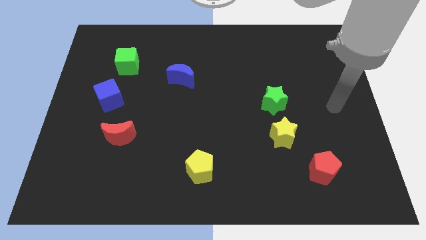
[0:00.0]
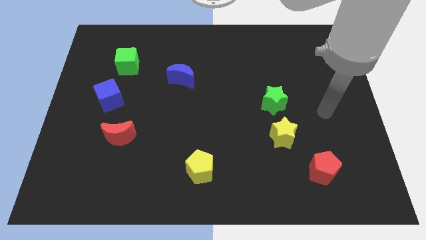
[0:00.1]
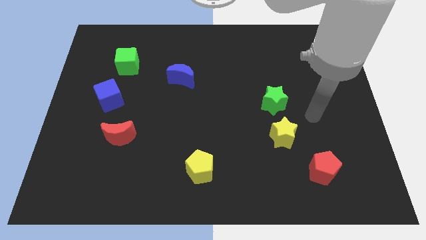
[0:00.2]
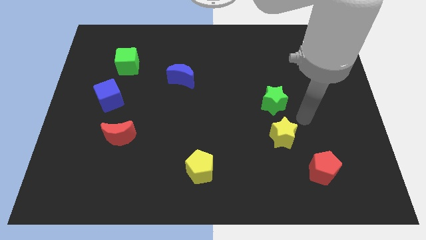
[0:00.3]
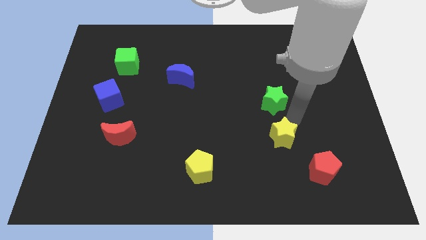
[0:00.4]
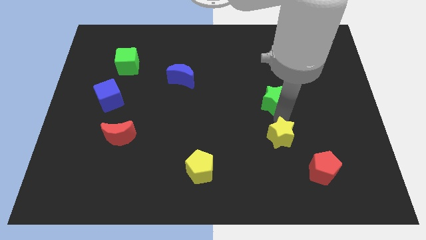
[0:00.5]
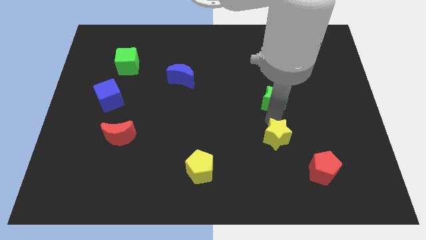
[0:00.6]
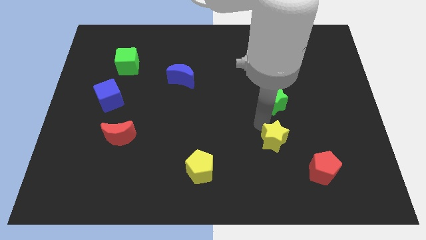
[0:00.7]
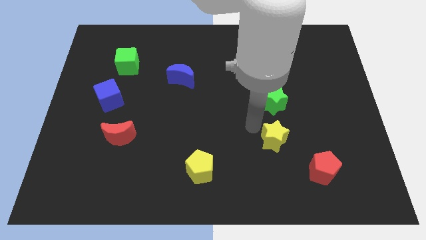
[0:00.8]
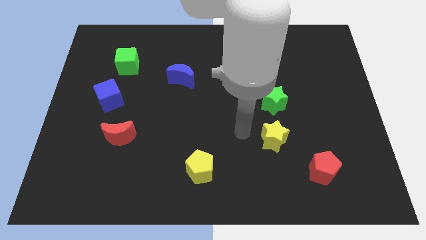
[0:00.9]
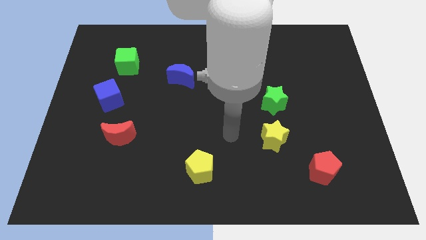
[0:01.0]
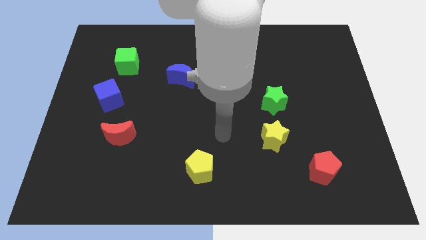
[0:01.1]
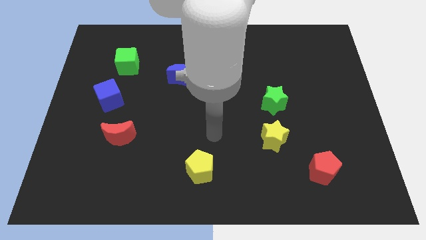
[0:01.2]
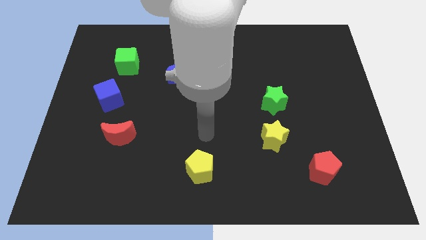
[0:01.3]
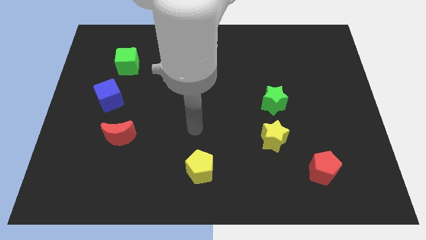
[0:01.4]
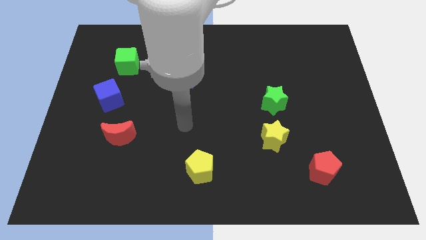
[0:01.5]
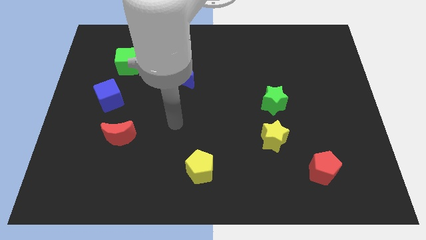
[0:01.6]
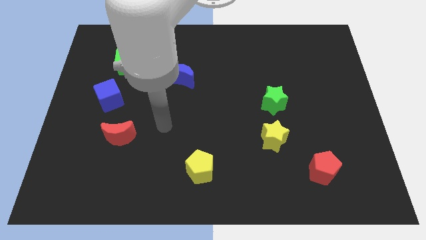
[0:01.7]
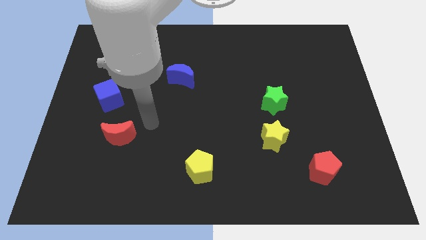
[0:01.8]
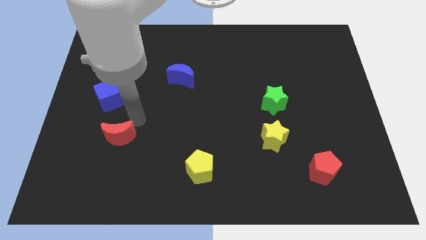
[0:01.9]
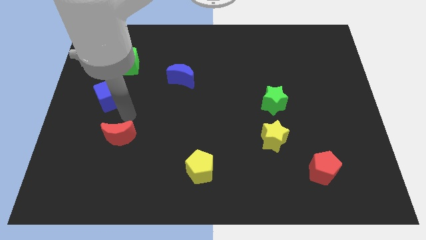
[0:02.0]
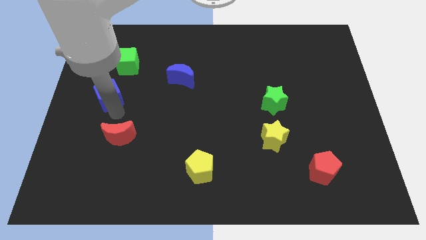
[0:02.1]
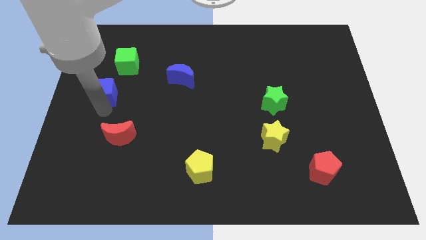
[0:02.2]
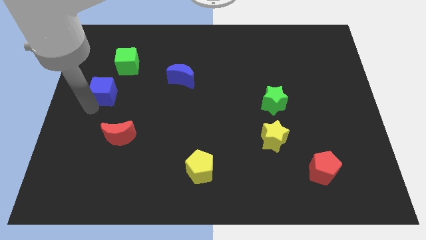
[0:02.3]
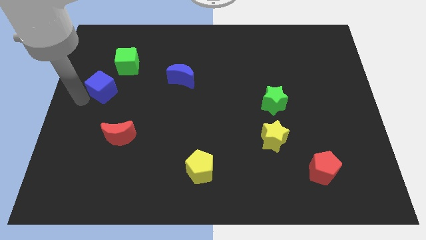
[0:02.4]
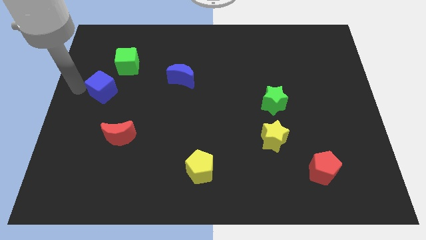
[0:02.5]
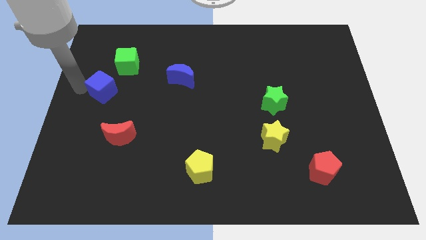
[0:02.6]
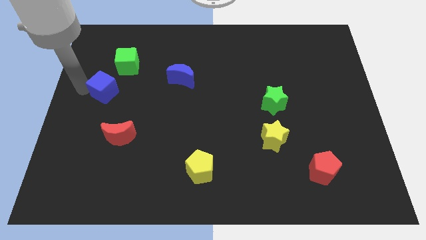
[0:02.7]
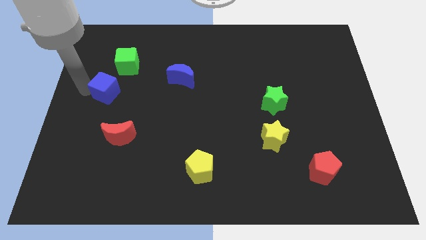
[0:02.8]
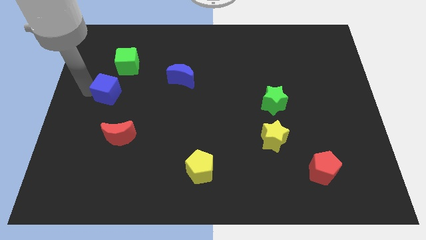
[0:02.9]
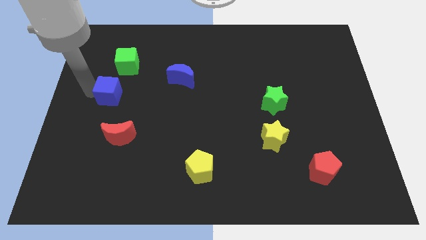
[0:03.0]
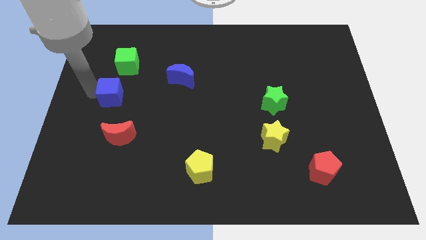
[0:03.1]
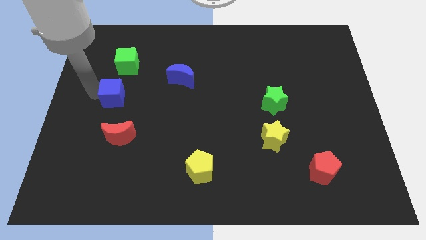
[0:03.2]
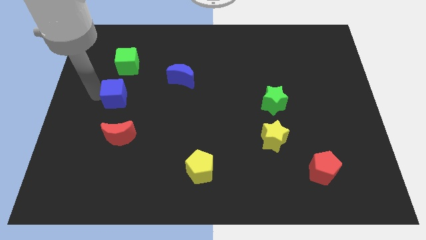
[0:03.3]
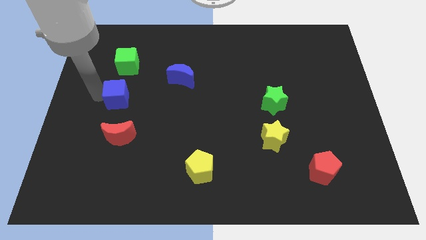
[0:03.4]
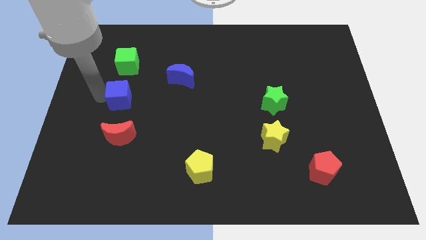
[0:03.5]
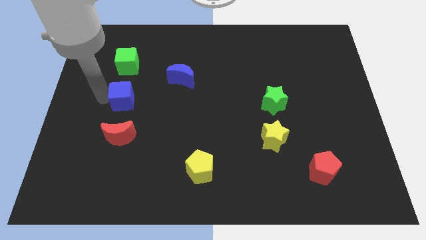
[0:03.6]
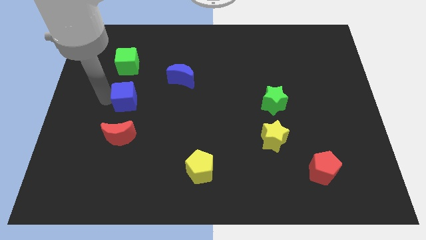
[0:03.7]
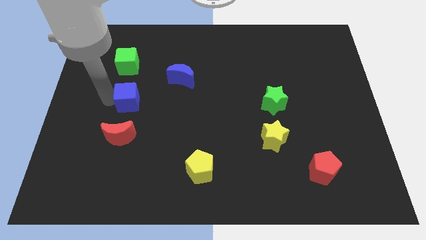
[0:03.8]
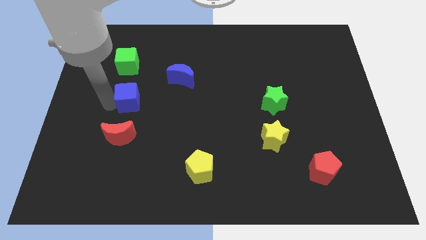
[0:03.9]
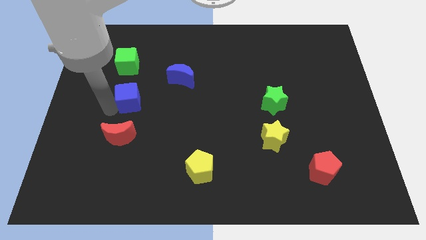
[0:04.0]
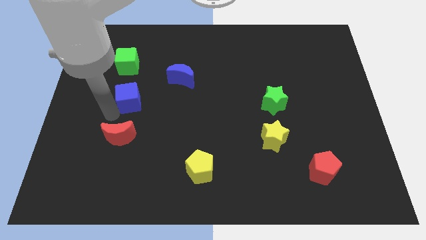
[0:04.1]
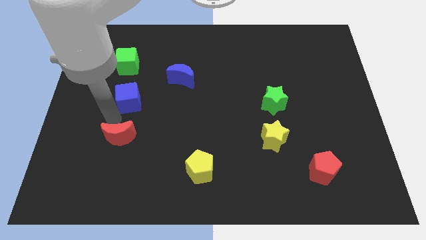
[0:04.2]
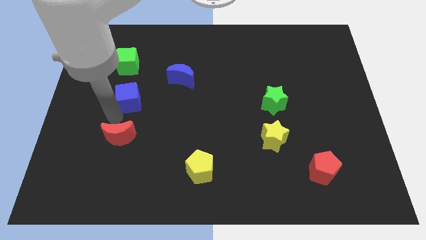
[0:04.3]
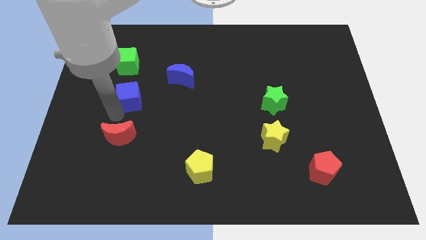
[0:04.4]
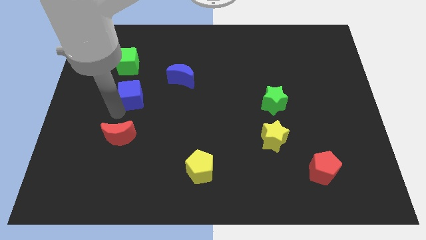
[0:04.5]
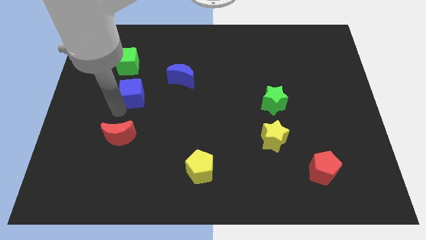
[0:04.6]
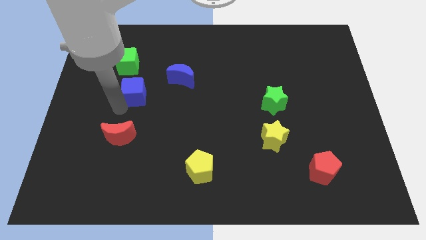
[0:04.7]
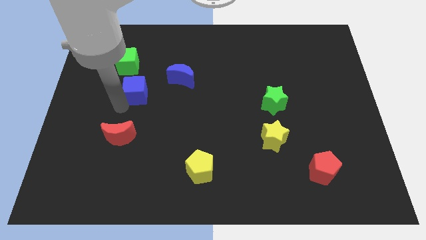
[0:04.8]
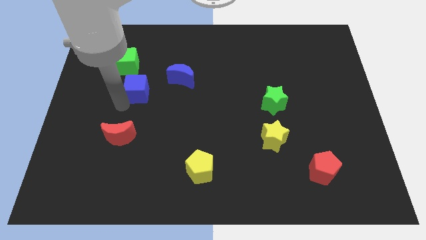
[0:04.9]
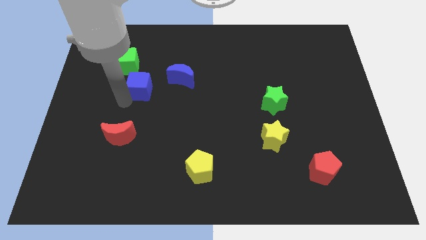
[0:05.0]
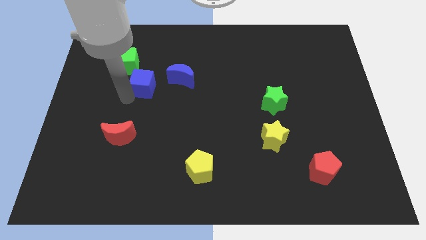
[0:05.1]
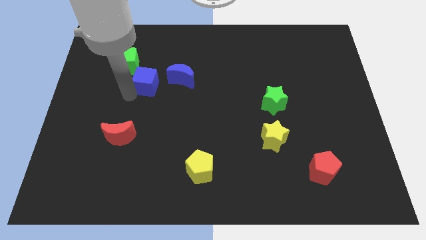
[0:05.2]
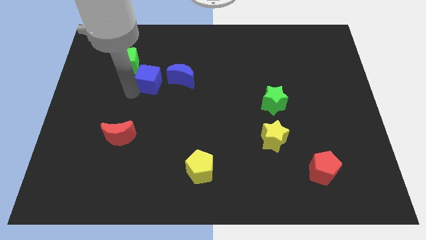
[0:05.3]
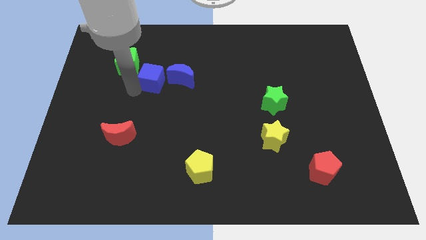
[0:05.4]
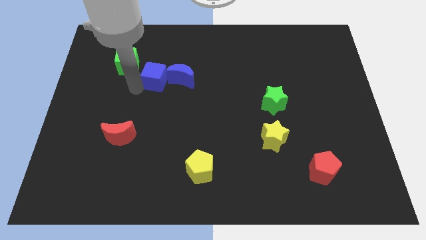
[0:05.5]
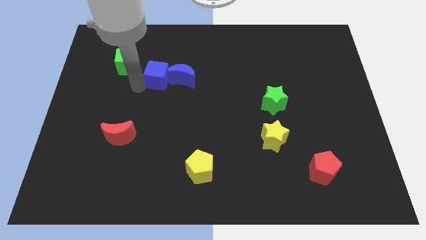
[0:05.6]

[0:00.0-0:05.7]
push the blue cube just right of the green cube

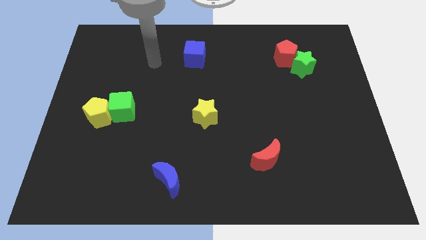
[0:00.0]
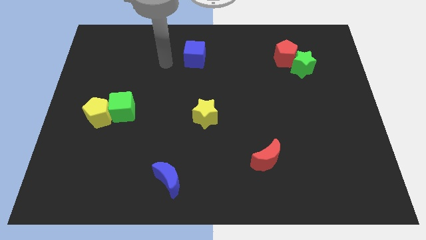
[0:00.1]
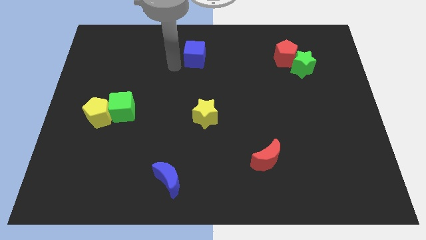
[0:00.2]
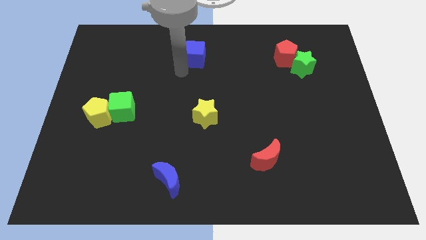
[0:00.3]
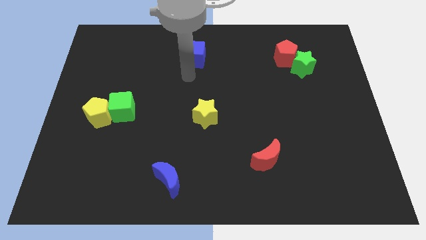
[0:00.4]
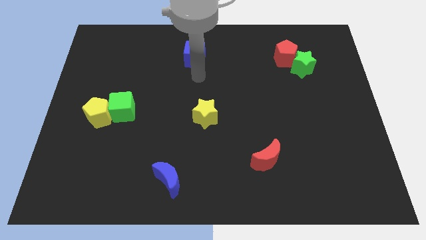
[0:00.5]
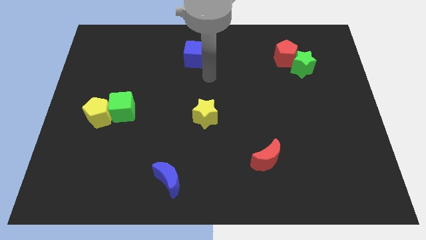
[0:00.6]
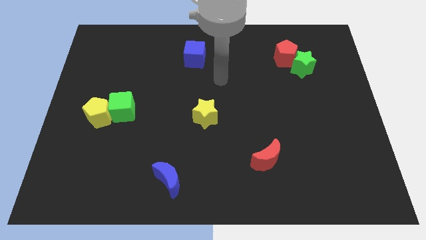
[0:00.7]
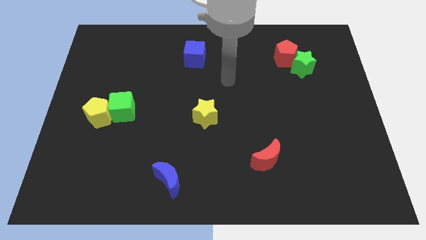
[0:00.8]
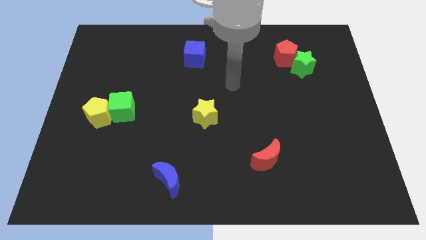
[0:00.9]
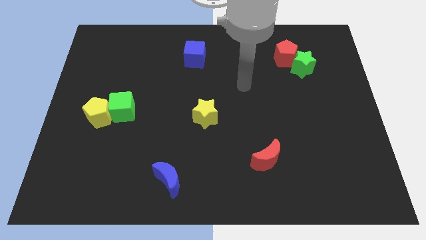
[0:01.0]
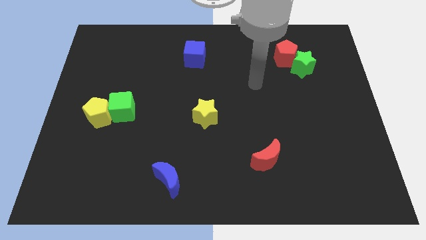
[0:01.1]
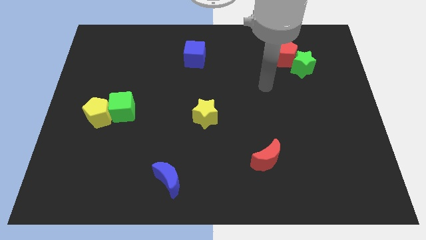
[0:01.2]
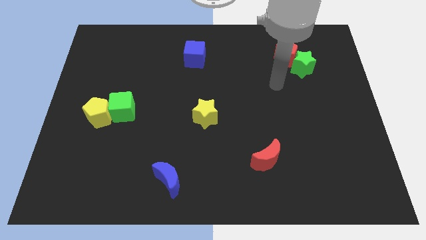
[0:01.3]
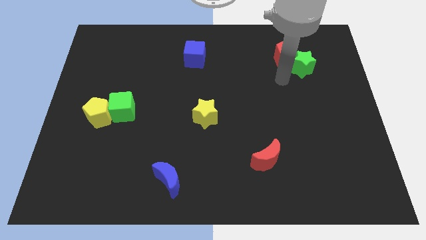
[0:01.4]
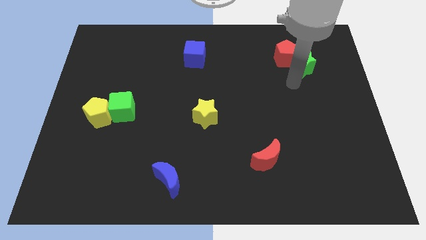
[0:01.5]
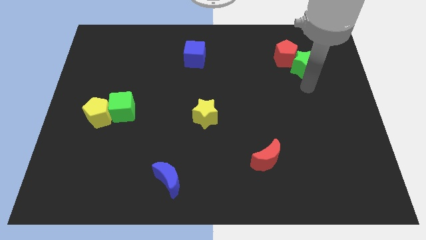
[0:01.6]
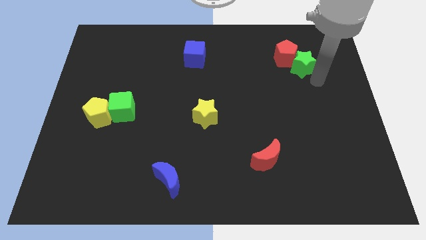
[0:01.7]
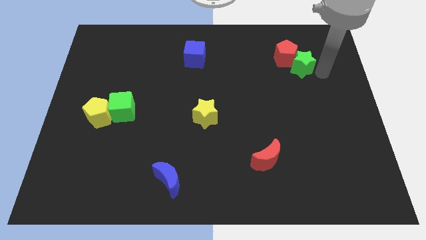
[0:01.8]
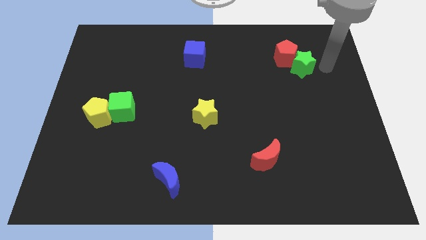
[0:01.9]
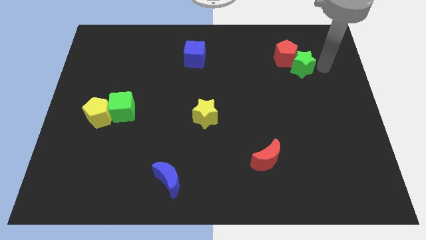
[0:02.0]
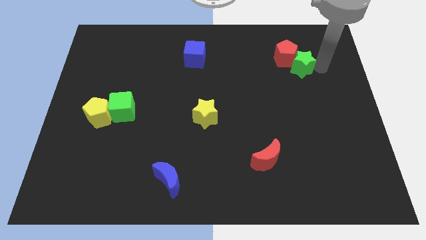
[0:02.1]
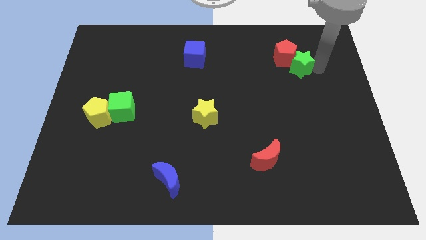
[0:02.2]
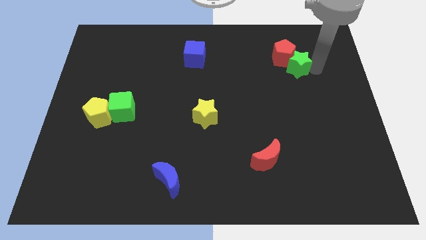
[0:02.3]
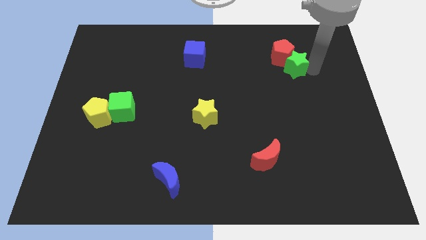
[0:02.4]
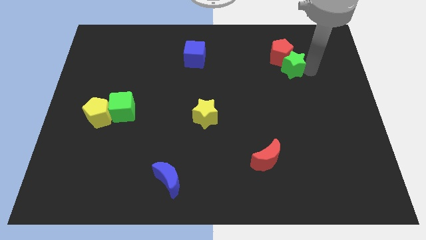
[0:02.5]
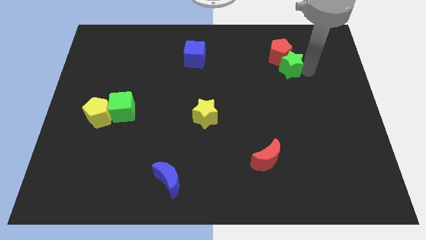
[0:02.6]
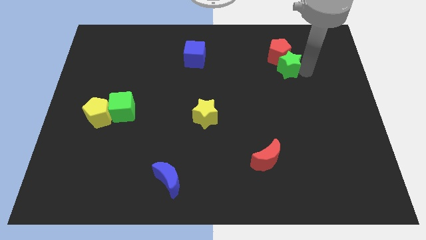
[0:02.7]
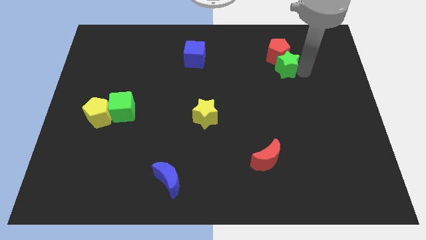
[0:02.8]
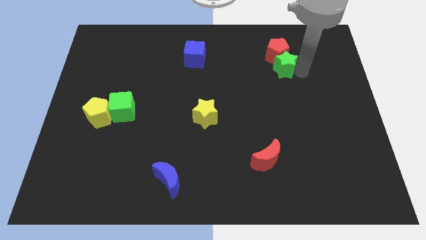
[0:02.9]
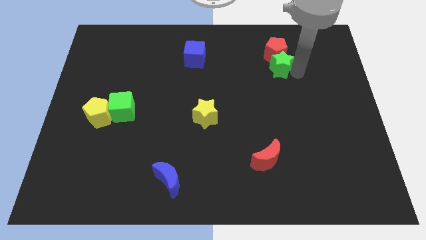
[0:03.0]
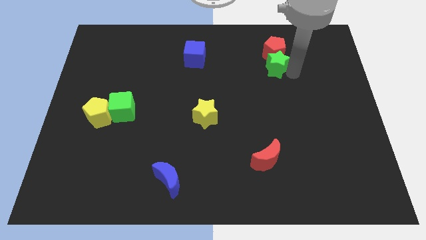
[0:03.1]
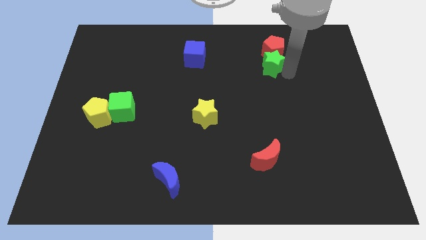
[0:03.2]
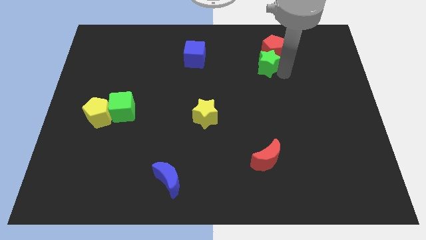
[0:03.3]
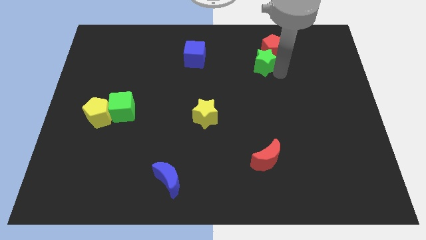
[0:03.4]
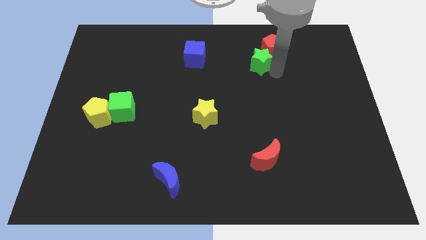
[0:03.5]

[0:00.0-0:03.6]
move the green star to the left side of the red pentagon
